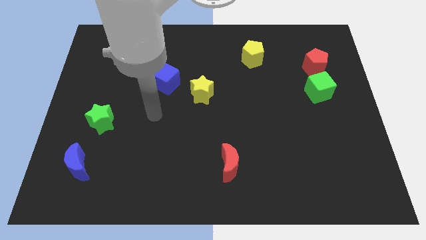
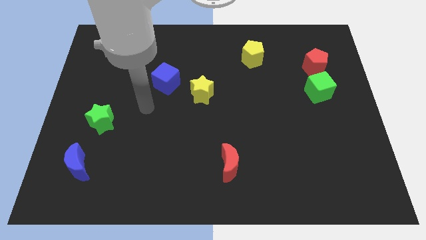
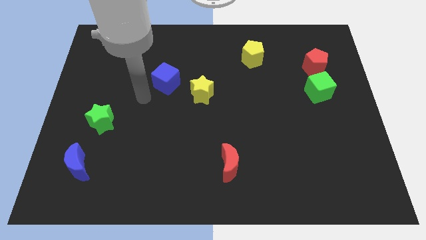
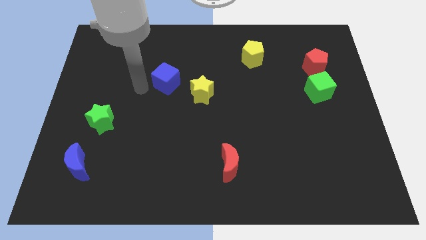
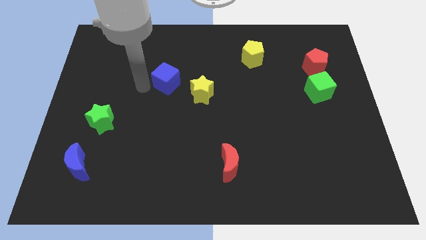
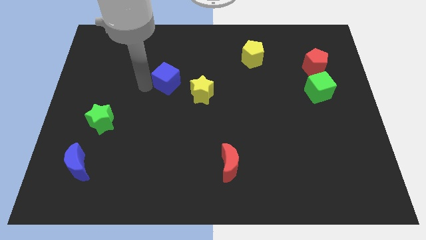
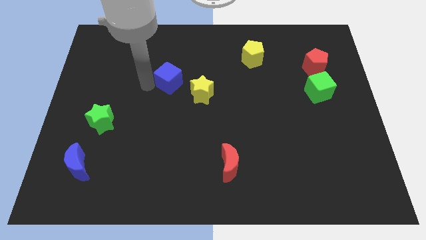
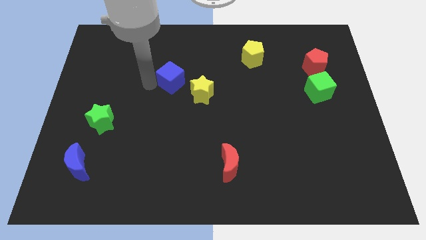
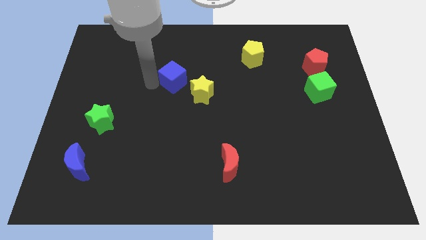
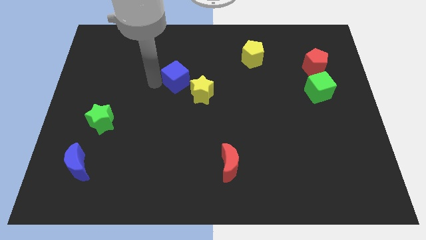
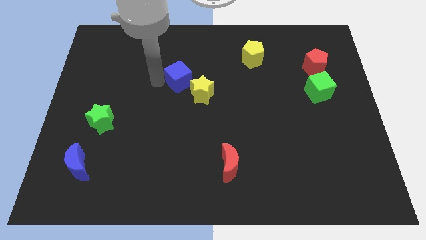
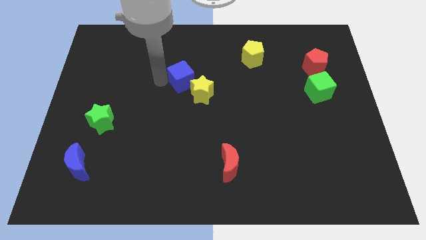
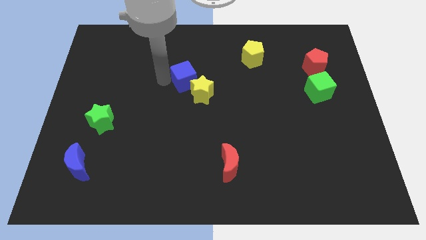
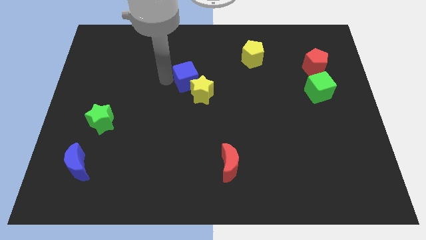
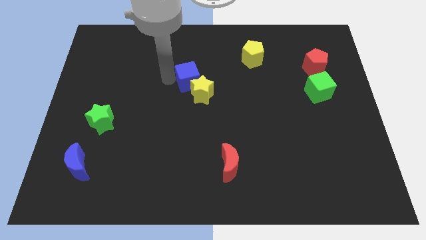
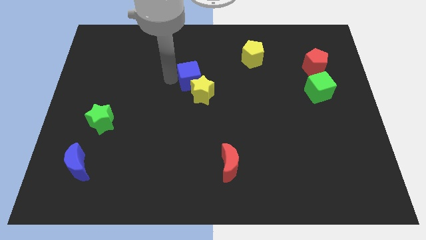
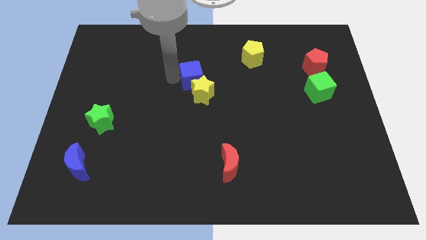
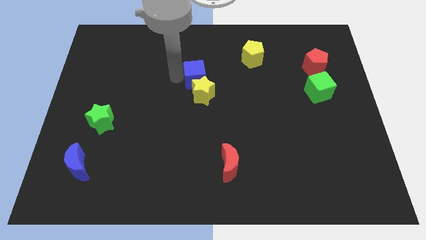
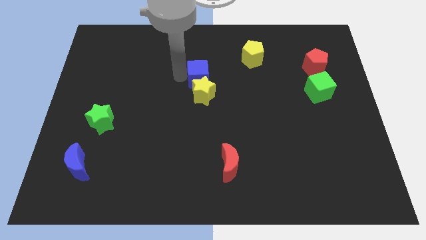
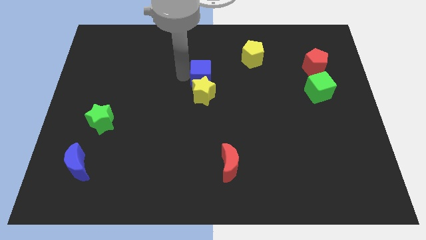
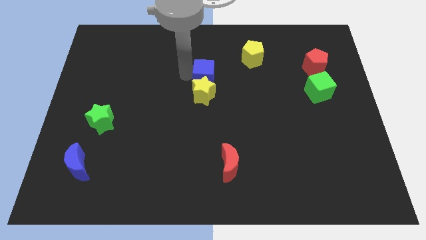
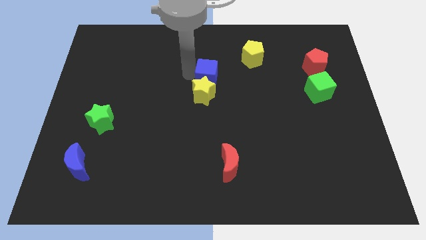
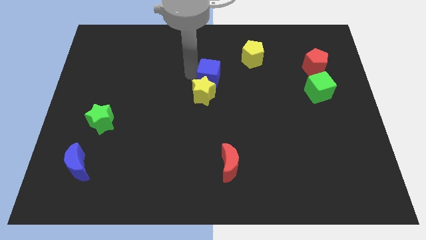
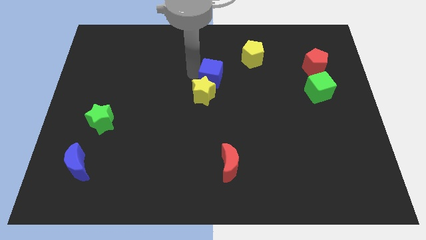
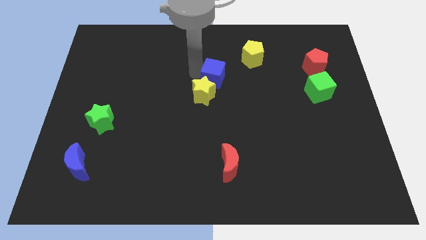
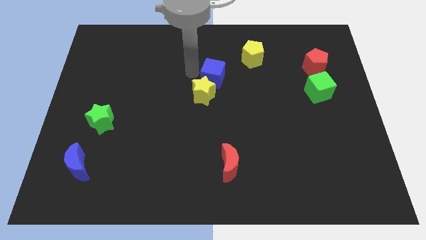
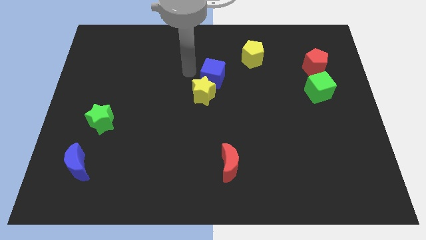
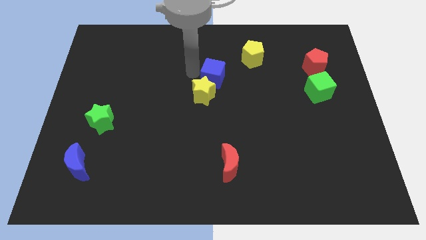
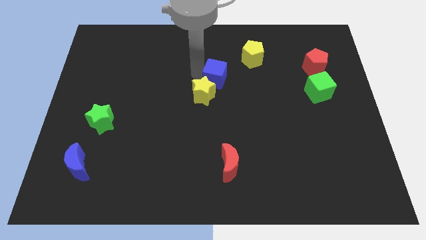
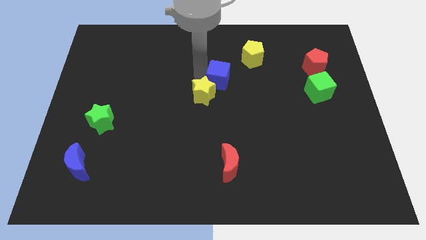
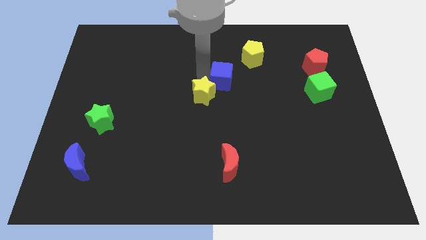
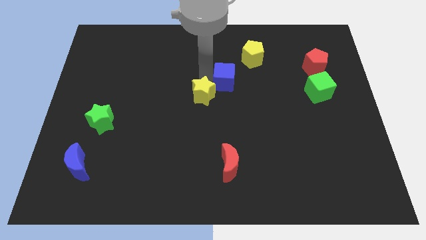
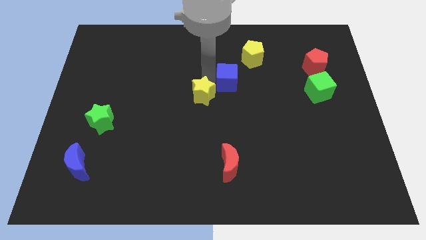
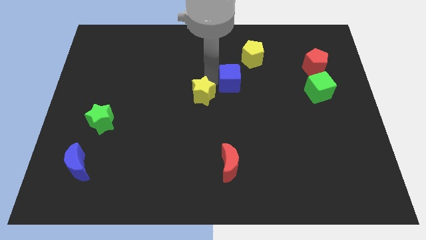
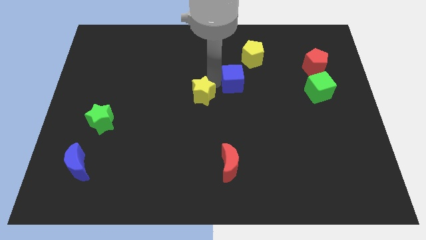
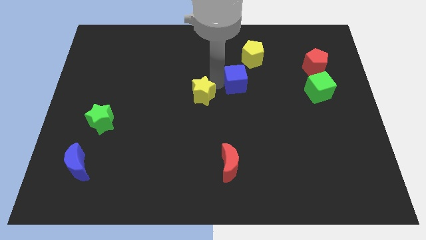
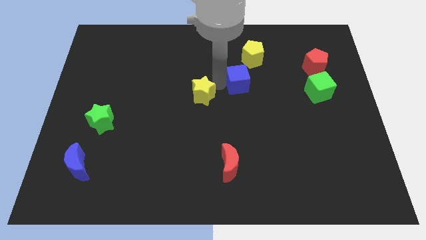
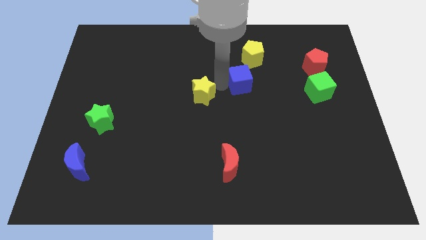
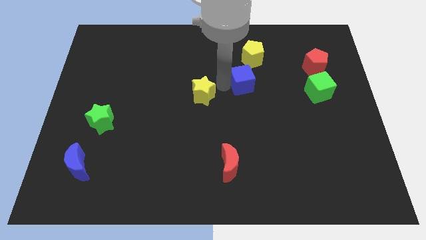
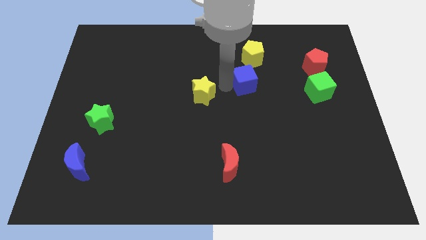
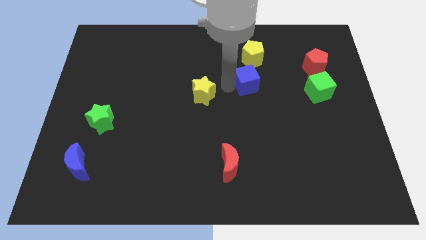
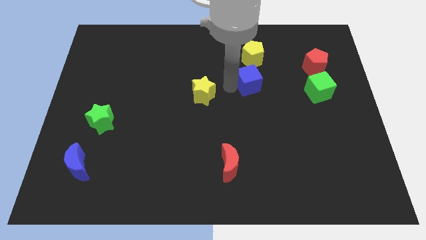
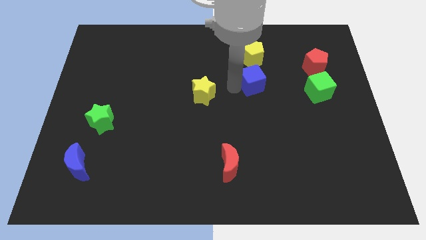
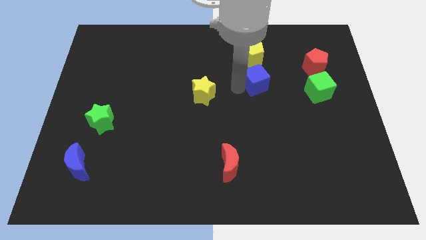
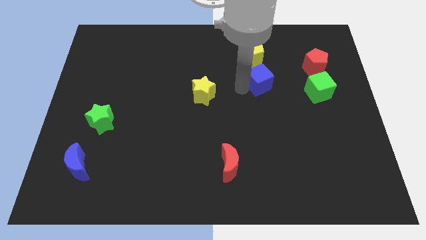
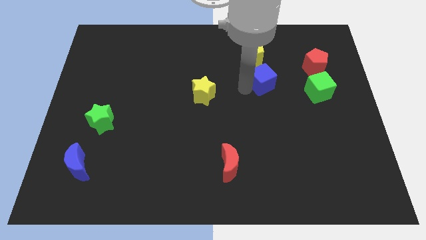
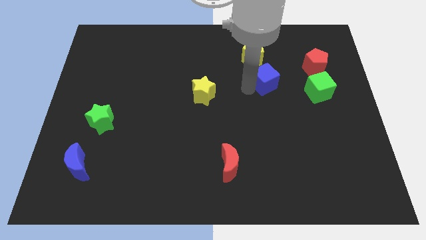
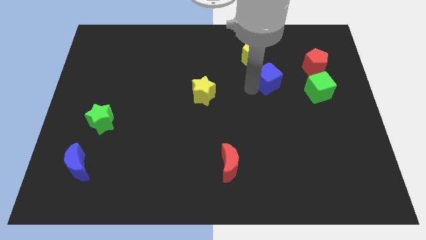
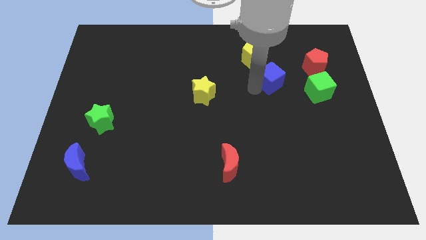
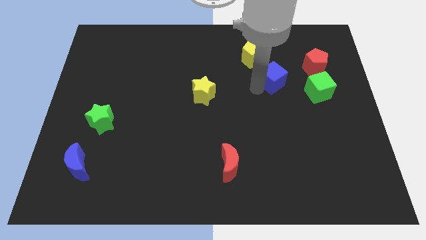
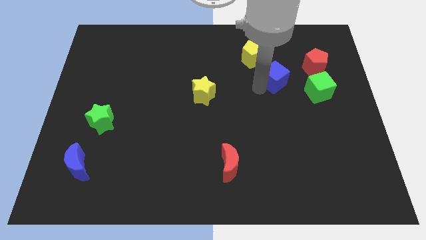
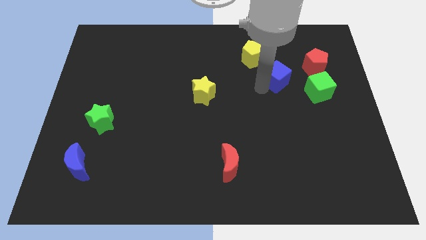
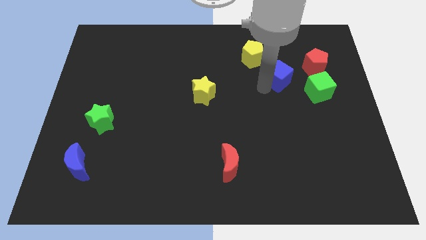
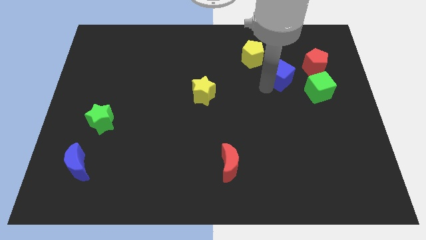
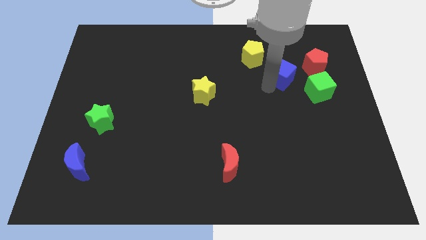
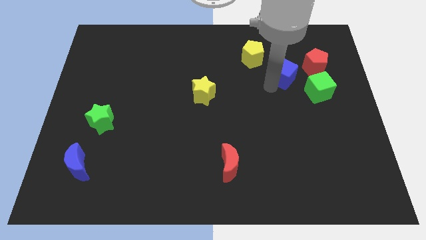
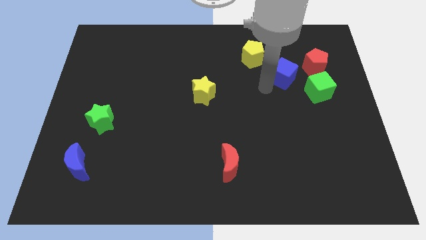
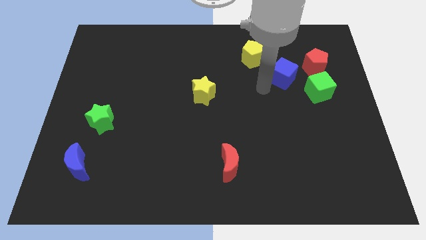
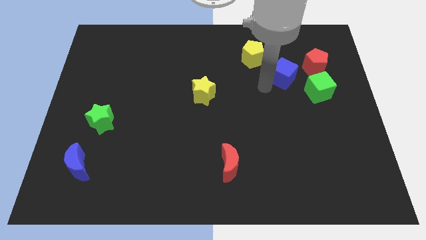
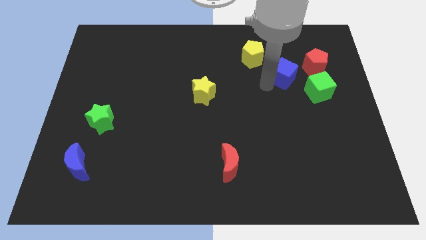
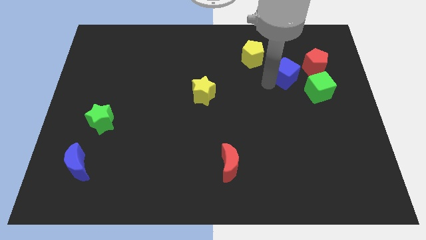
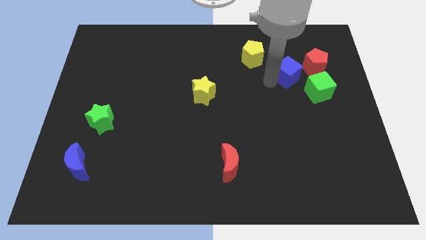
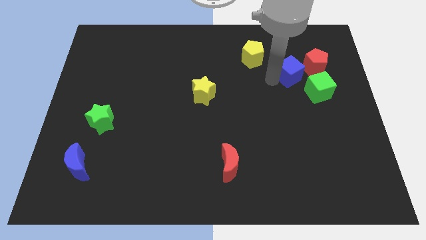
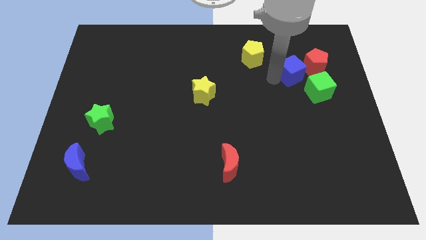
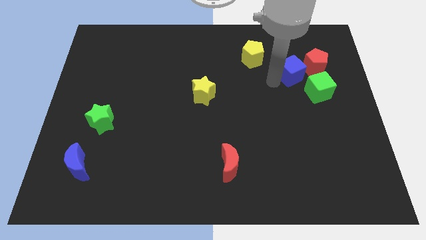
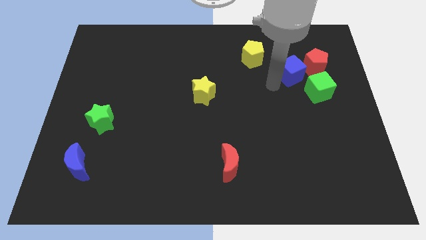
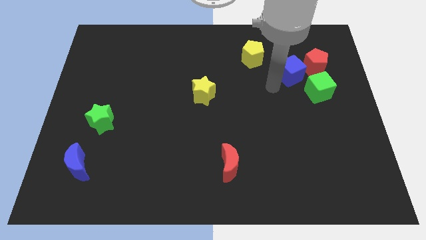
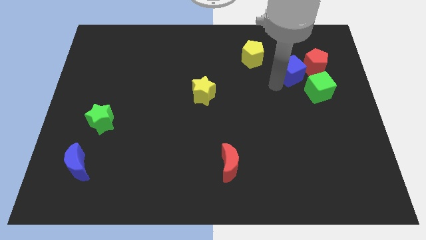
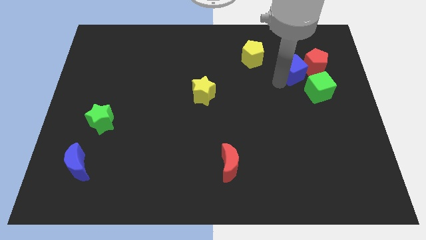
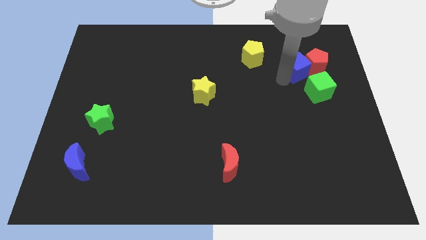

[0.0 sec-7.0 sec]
push the blue cube to the red pentagon
